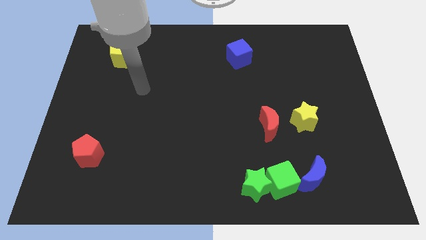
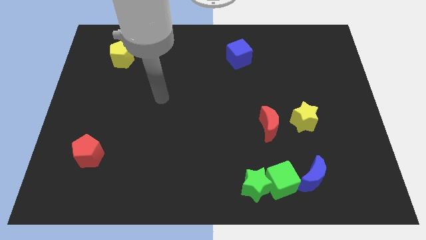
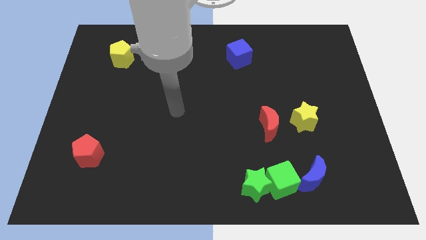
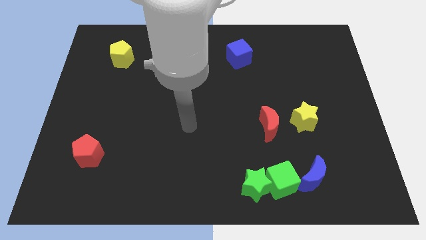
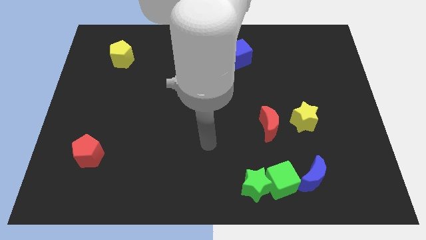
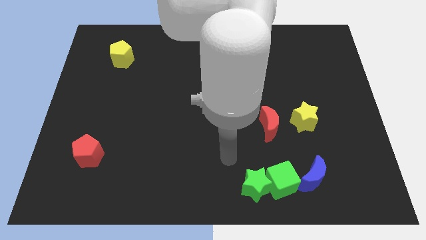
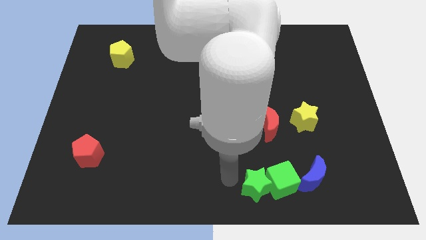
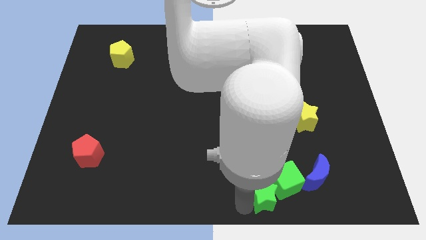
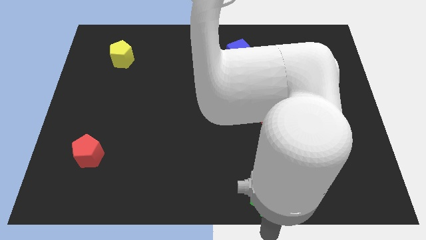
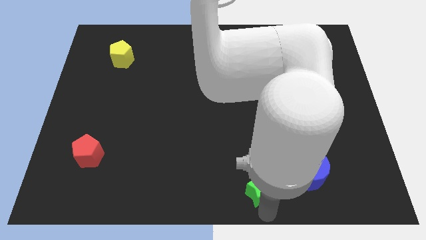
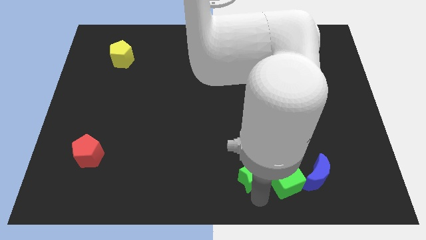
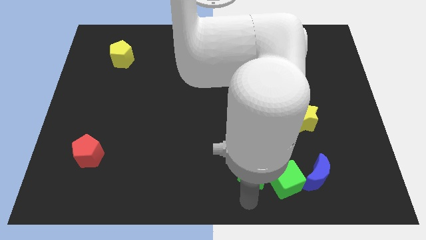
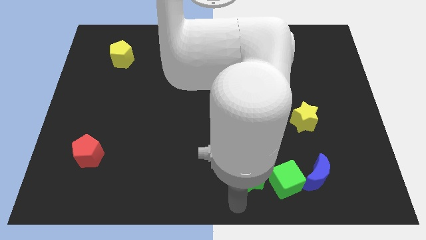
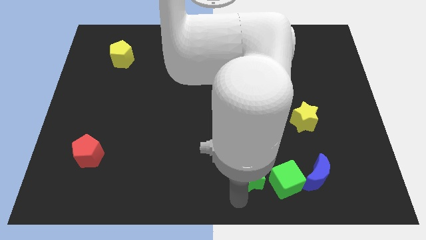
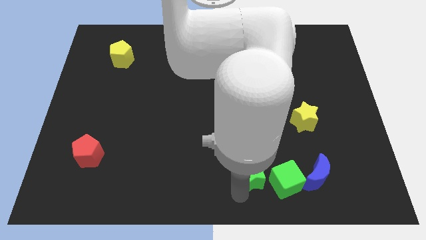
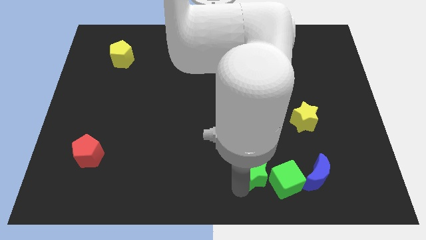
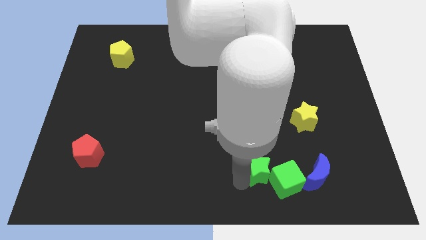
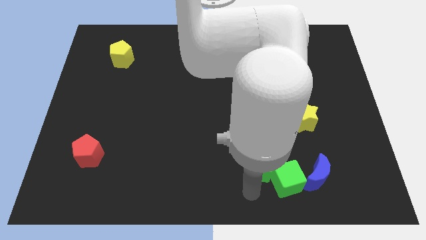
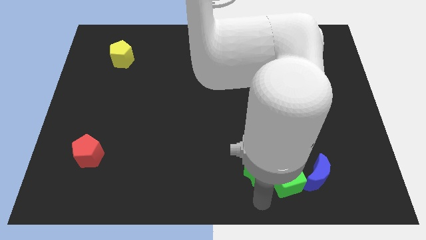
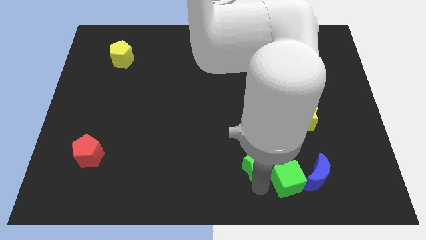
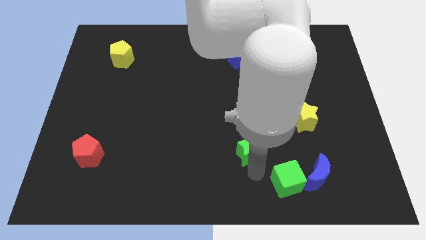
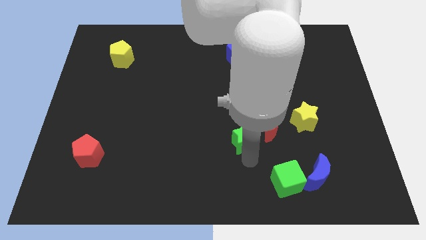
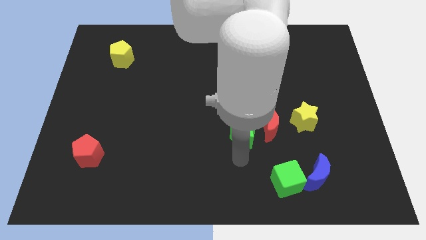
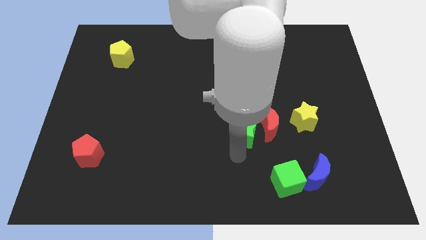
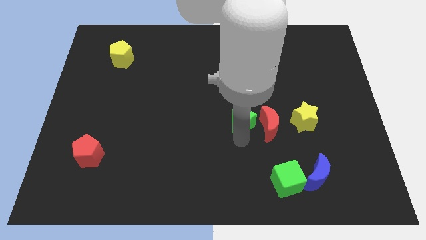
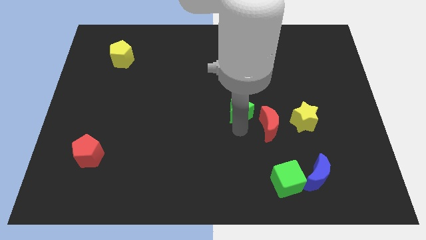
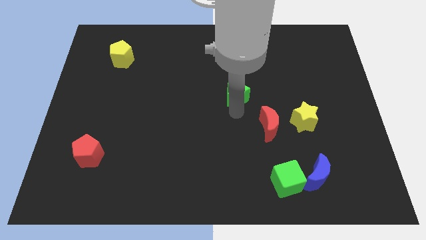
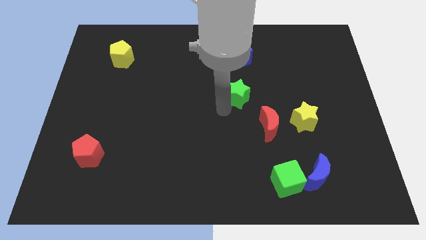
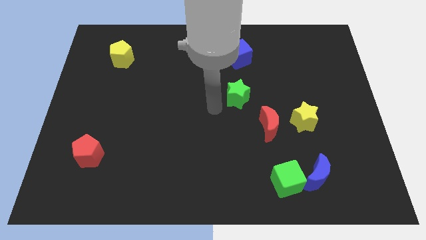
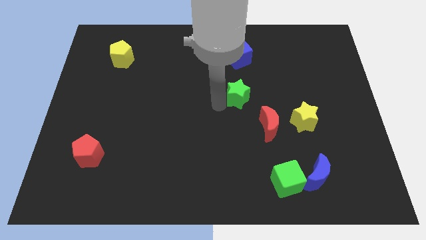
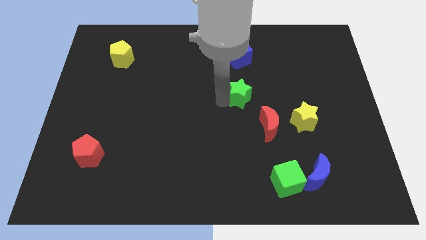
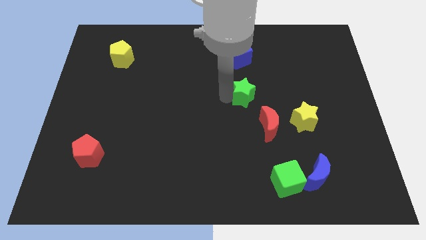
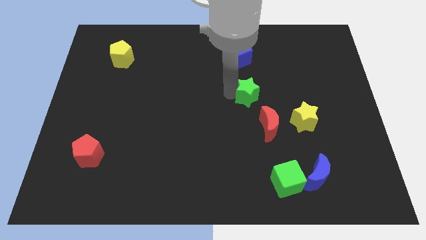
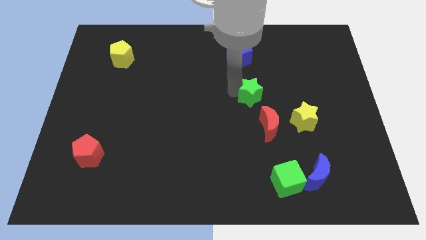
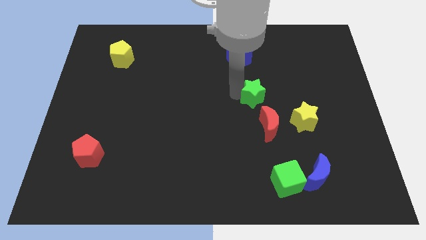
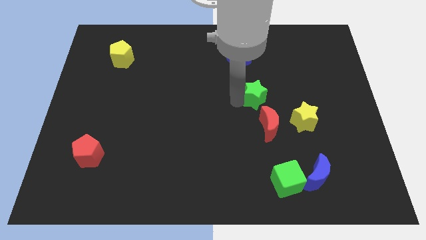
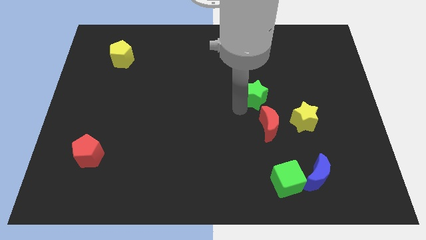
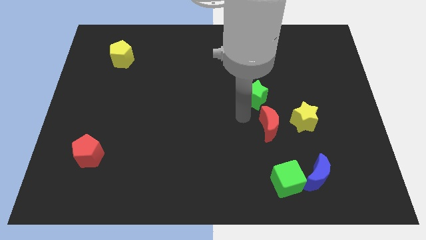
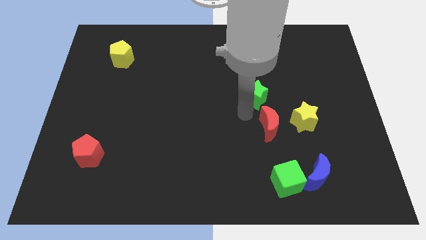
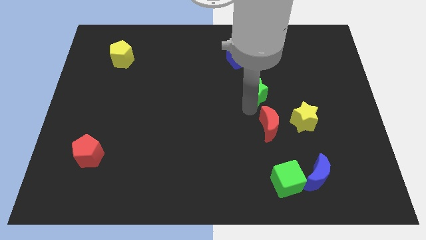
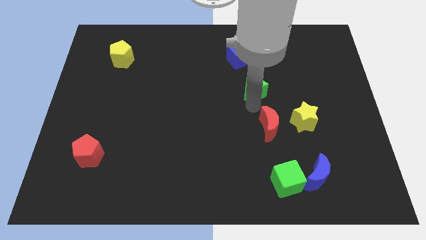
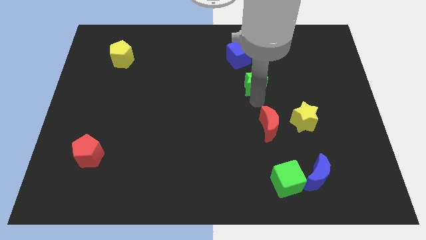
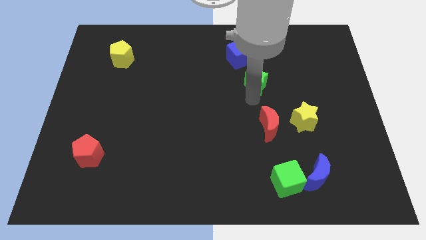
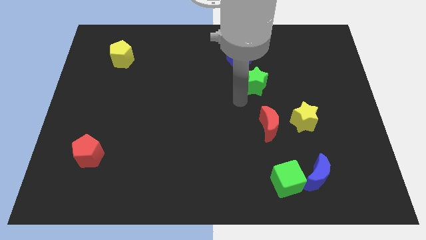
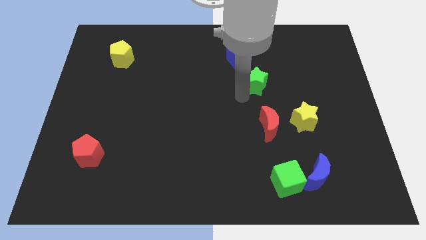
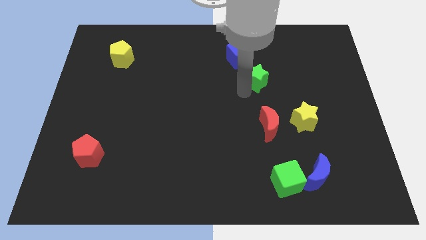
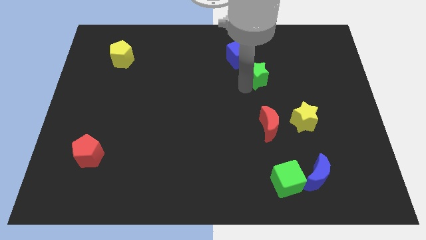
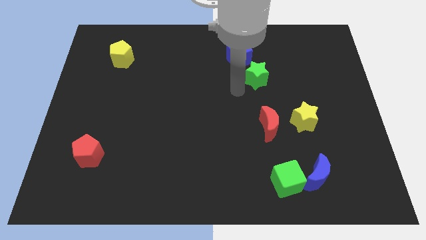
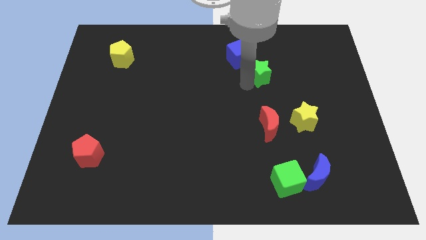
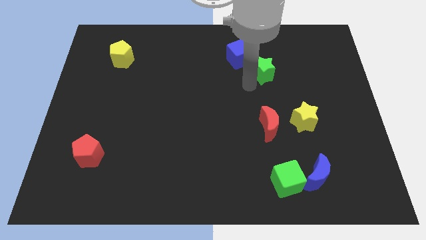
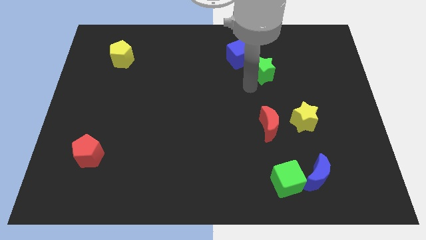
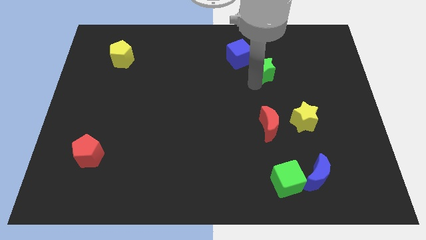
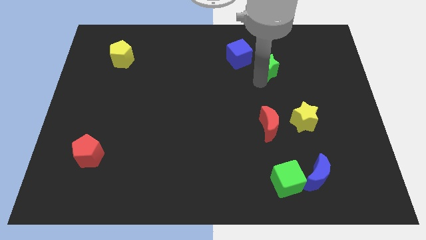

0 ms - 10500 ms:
slide the green star right of the blue cube

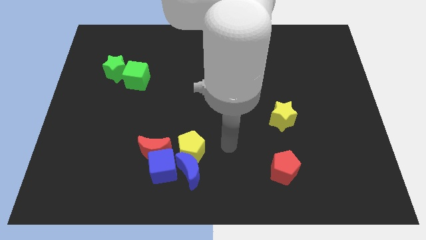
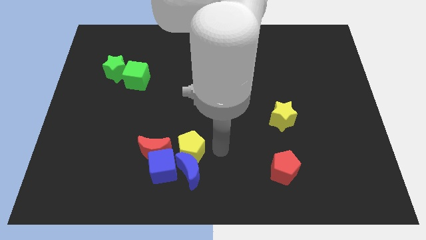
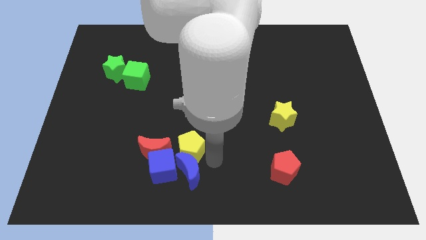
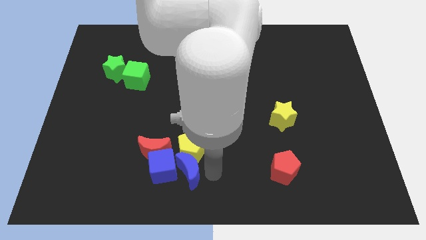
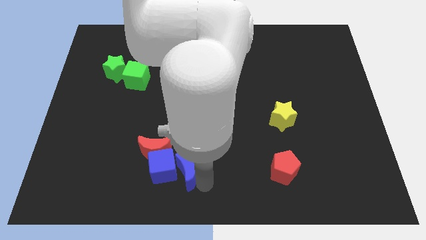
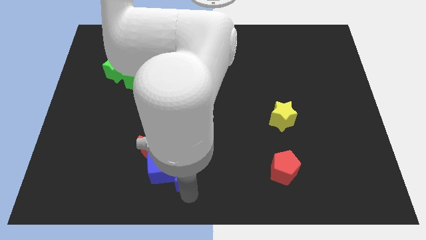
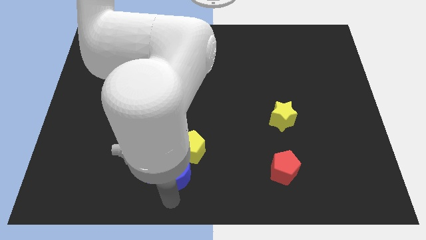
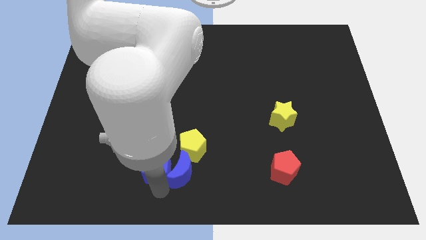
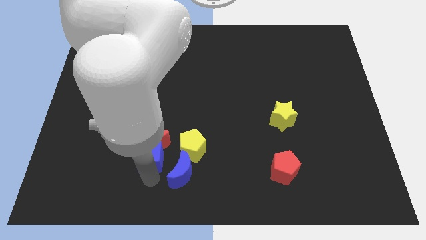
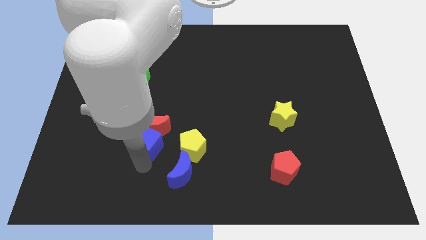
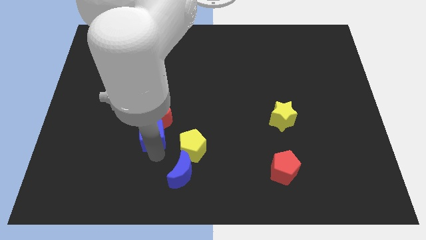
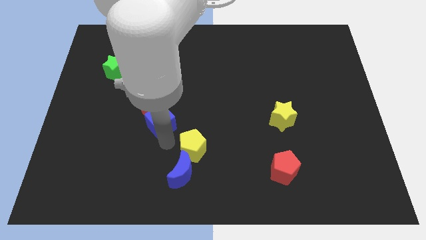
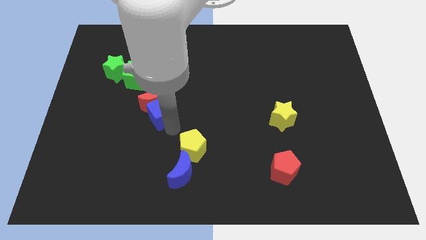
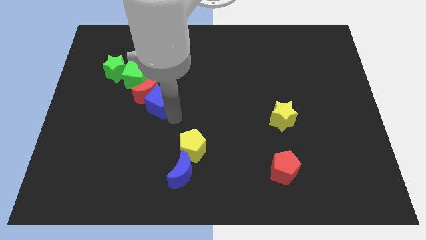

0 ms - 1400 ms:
slide the red moon to the bottom right side of the green star
